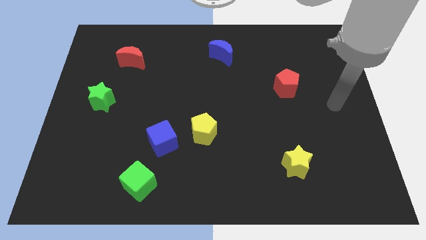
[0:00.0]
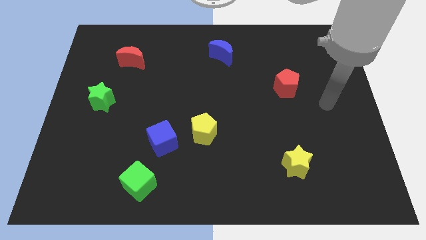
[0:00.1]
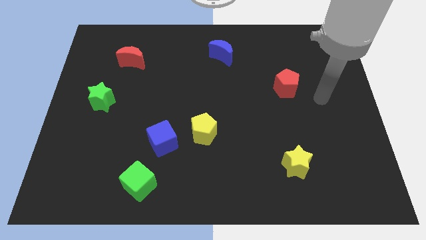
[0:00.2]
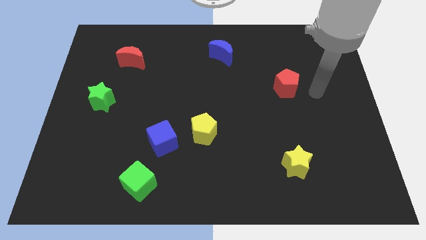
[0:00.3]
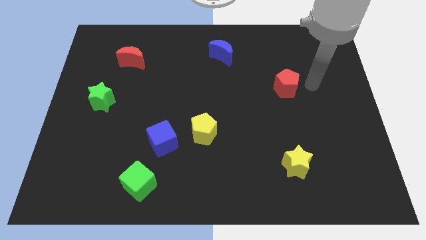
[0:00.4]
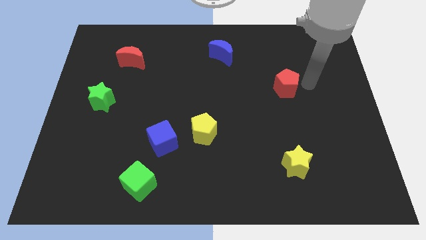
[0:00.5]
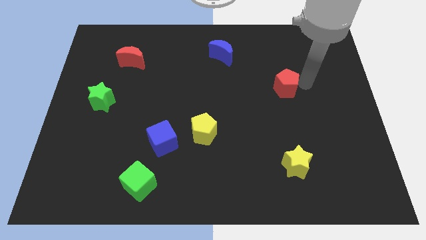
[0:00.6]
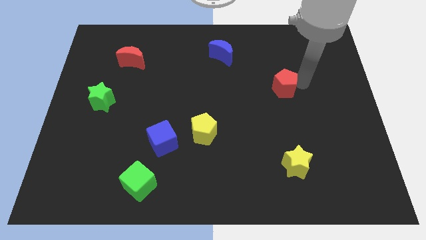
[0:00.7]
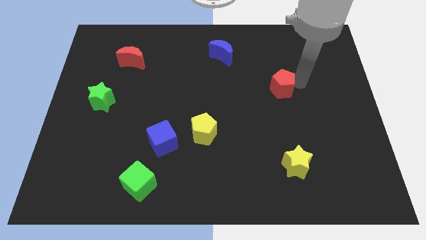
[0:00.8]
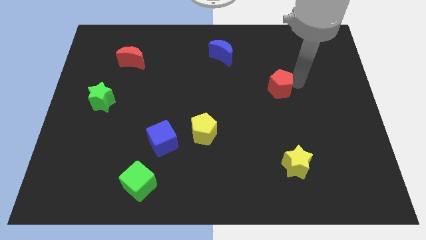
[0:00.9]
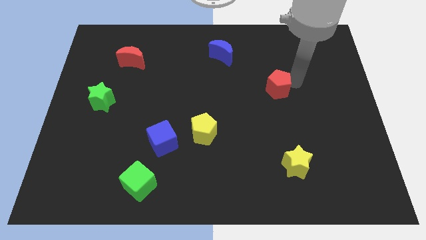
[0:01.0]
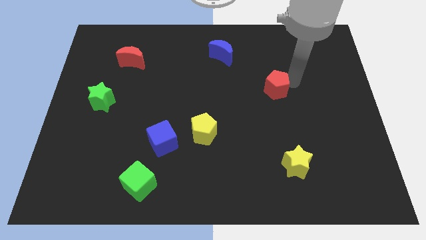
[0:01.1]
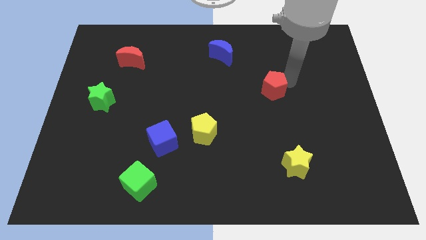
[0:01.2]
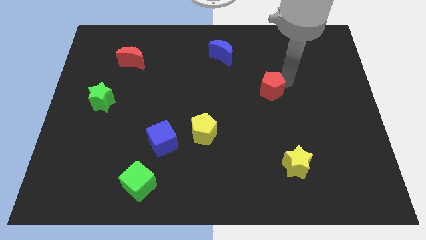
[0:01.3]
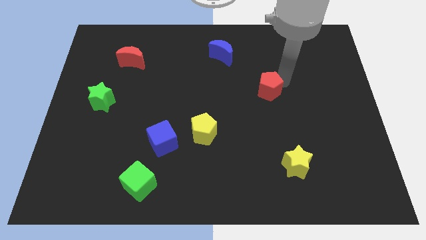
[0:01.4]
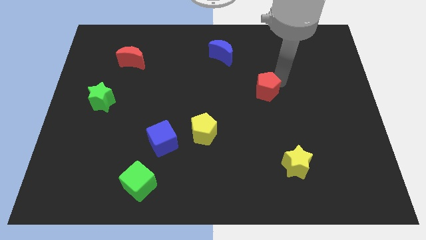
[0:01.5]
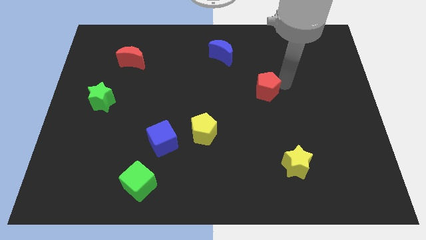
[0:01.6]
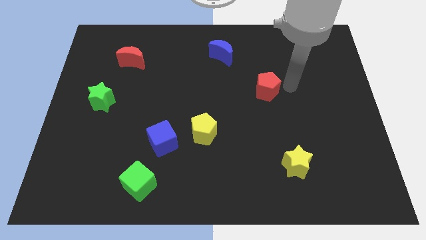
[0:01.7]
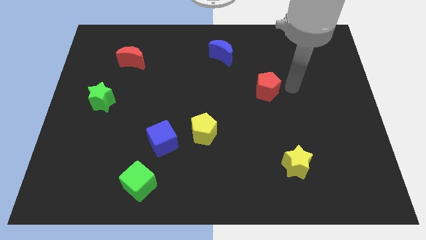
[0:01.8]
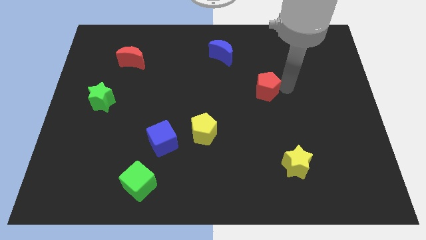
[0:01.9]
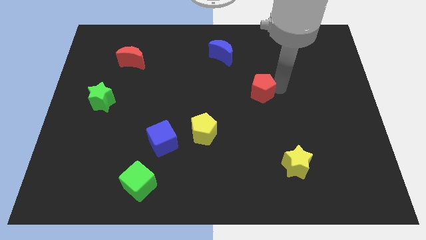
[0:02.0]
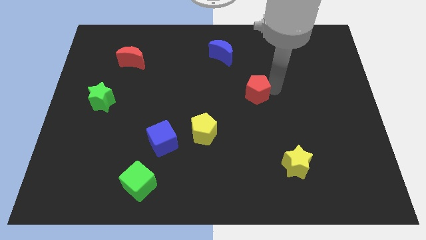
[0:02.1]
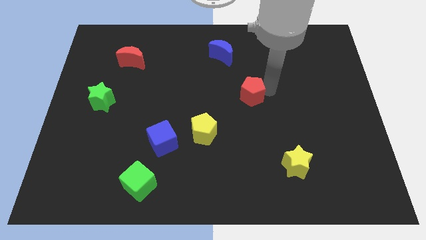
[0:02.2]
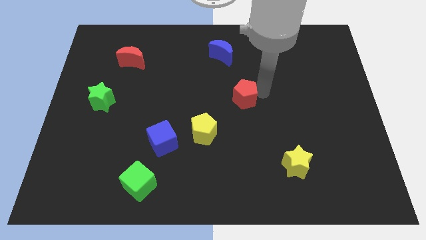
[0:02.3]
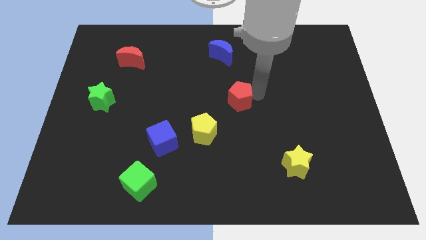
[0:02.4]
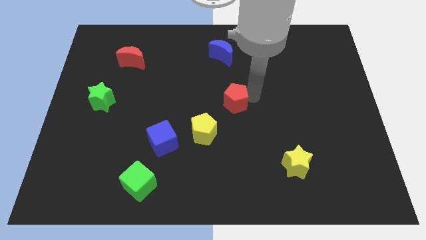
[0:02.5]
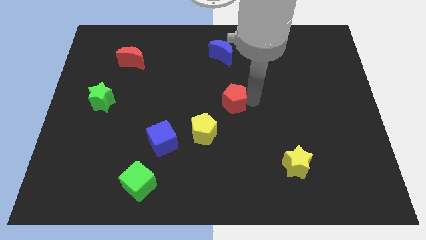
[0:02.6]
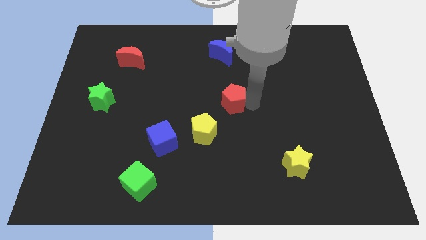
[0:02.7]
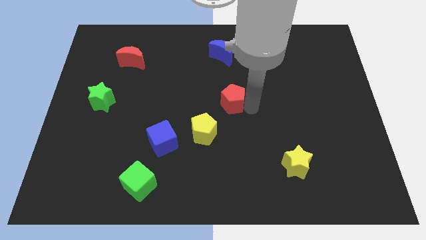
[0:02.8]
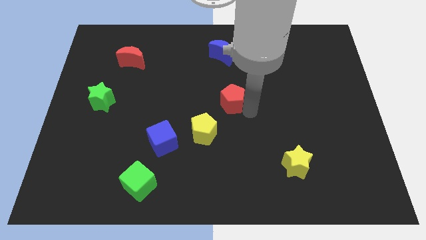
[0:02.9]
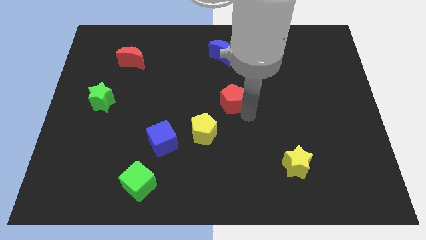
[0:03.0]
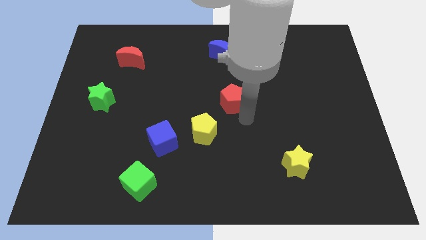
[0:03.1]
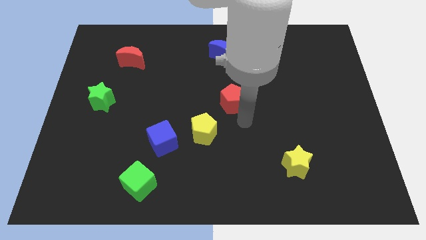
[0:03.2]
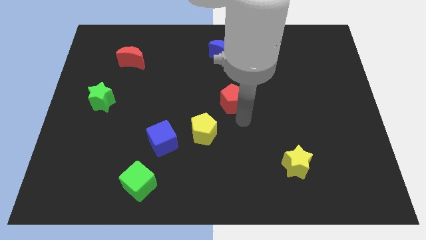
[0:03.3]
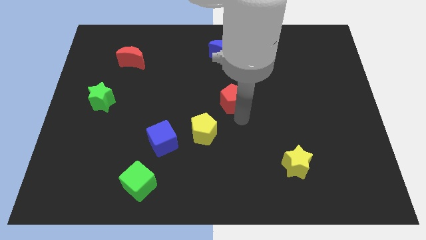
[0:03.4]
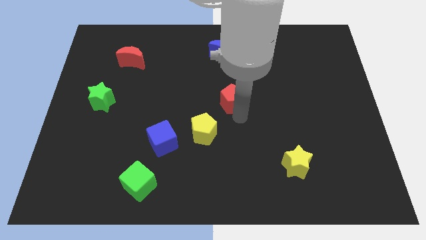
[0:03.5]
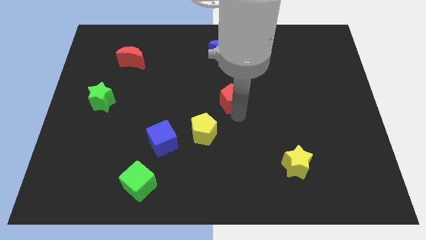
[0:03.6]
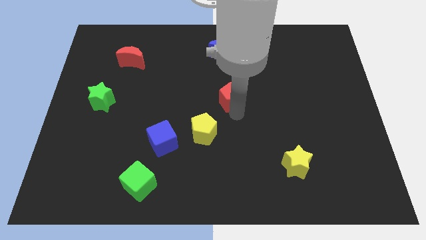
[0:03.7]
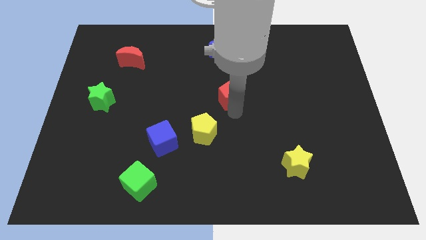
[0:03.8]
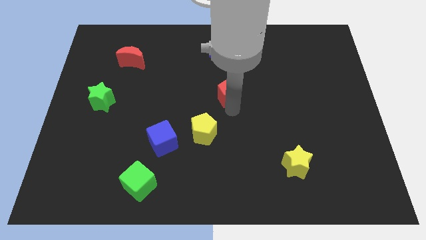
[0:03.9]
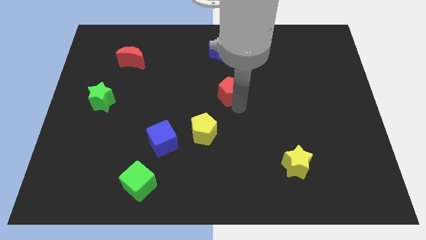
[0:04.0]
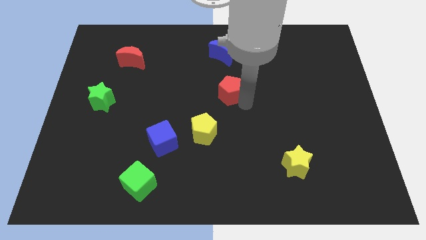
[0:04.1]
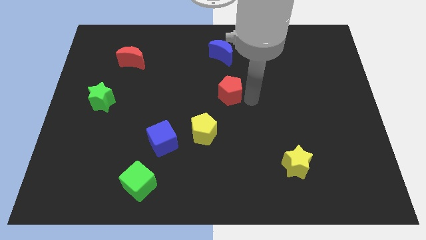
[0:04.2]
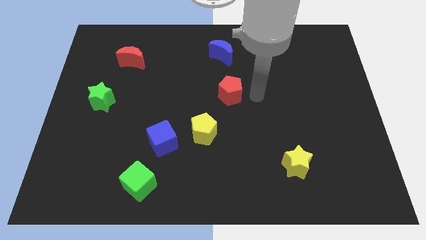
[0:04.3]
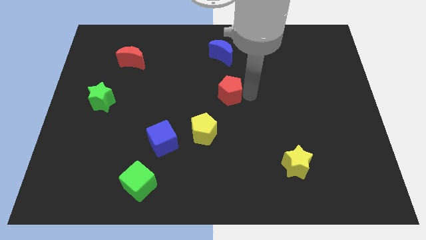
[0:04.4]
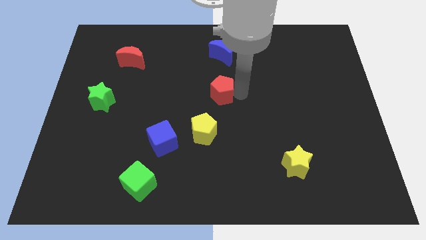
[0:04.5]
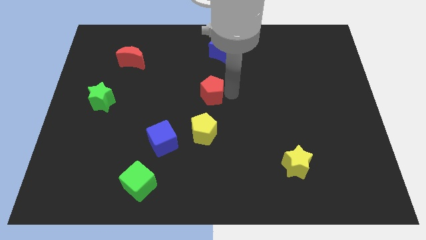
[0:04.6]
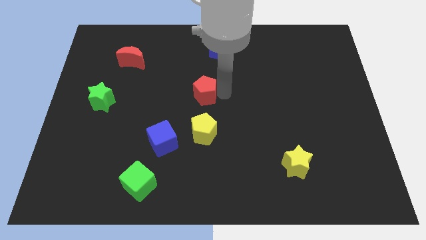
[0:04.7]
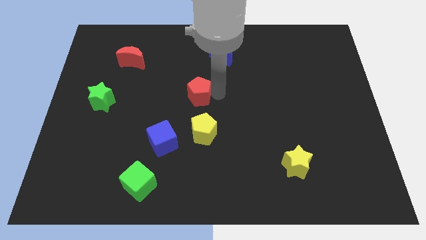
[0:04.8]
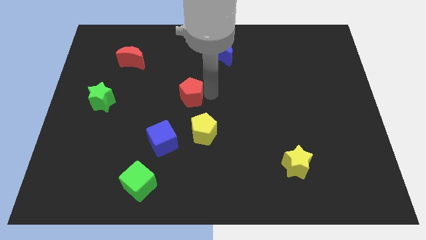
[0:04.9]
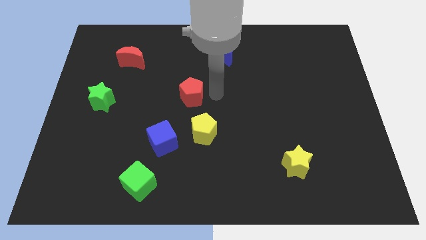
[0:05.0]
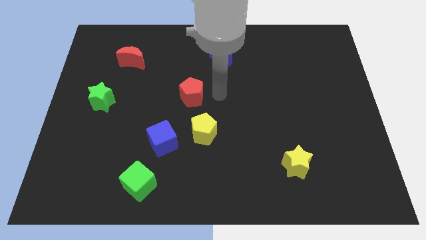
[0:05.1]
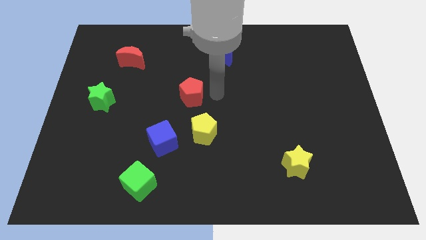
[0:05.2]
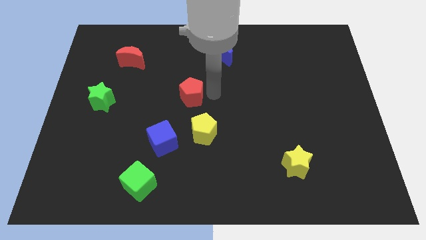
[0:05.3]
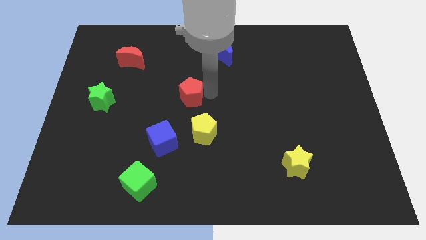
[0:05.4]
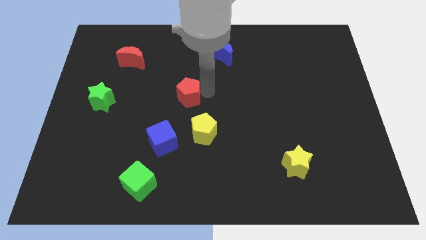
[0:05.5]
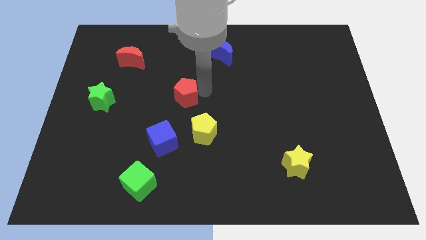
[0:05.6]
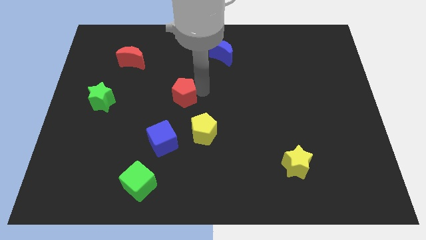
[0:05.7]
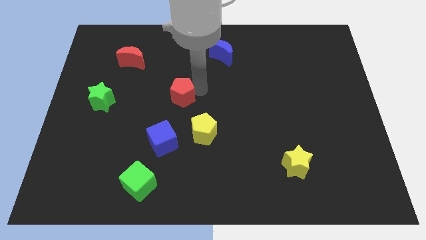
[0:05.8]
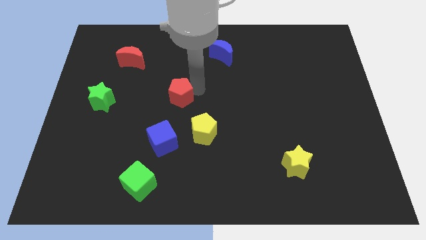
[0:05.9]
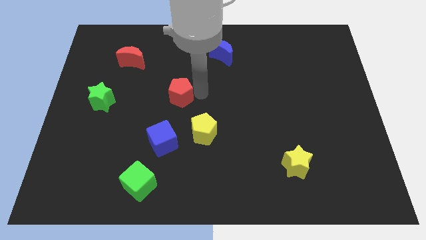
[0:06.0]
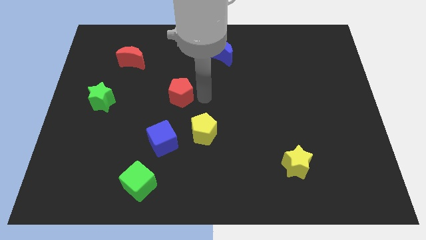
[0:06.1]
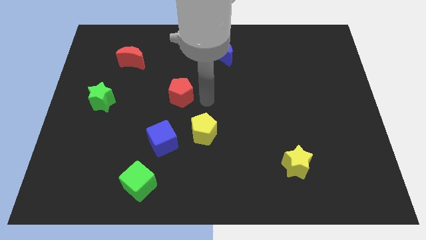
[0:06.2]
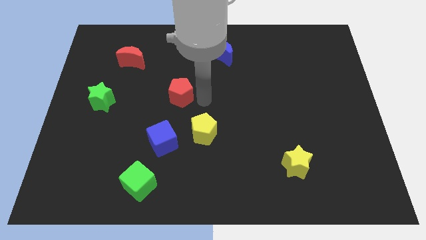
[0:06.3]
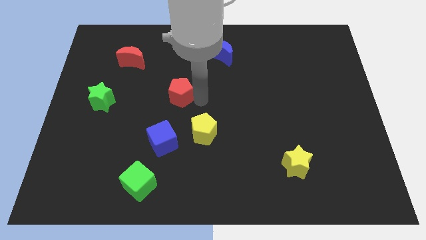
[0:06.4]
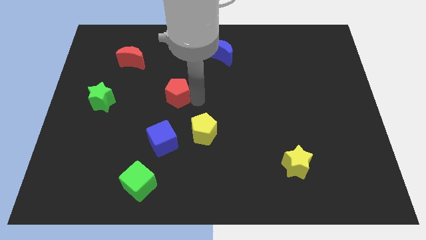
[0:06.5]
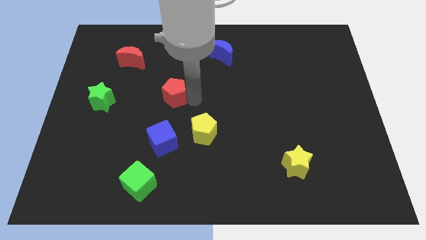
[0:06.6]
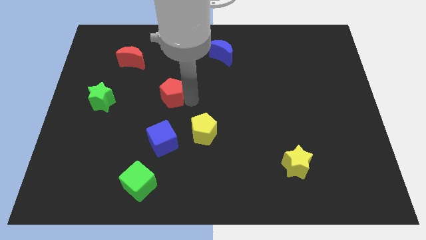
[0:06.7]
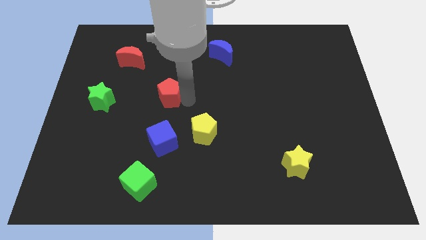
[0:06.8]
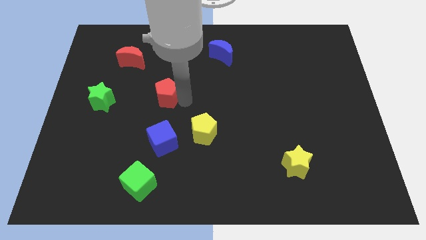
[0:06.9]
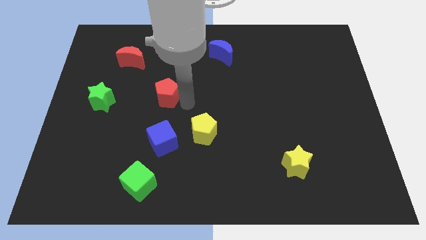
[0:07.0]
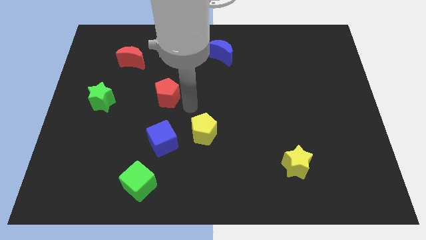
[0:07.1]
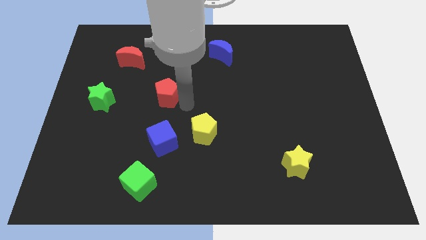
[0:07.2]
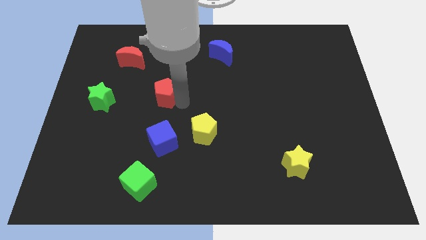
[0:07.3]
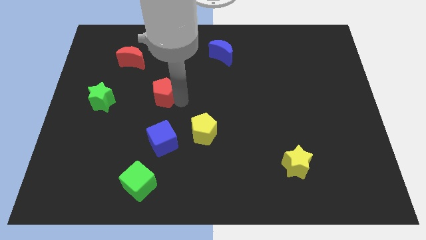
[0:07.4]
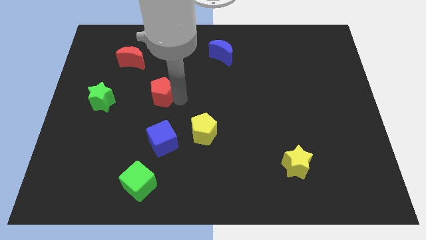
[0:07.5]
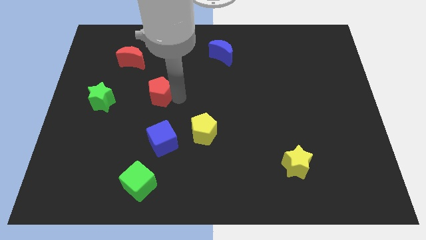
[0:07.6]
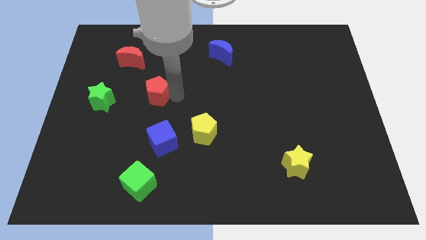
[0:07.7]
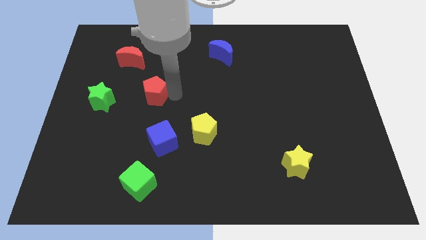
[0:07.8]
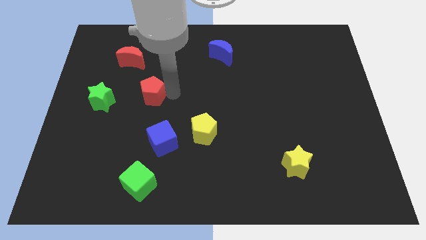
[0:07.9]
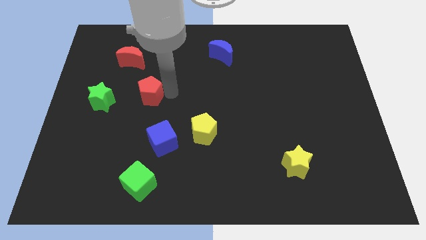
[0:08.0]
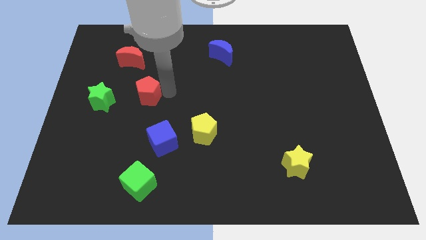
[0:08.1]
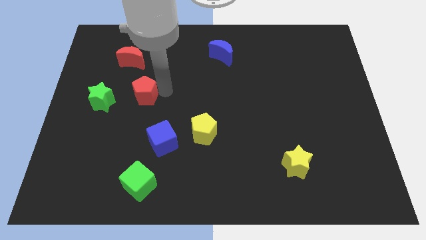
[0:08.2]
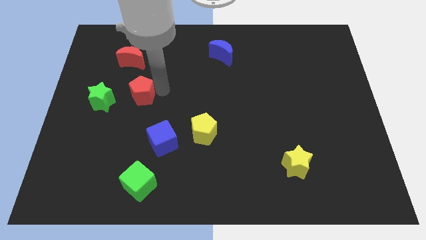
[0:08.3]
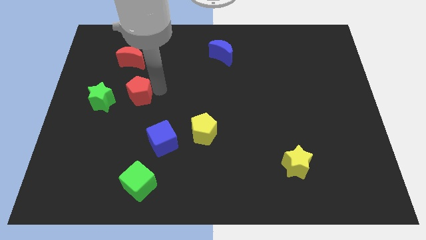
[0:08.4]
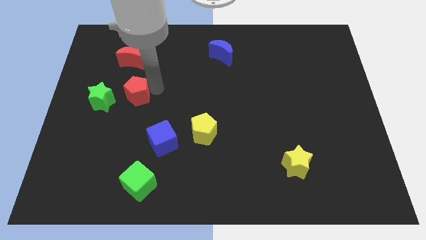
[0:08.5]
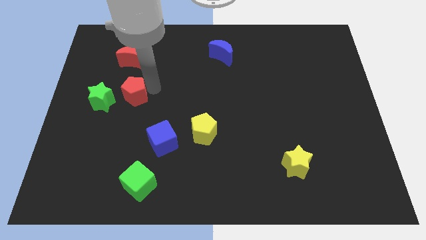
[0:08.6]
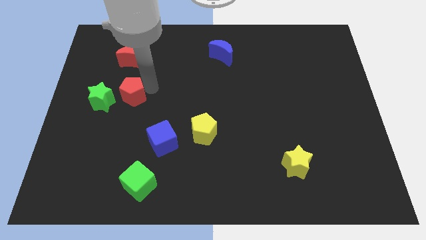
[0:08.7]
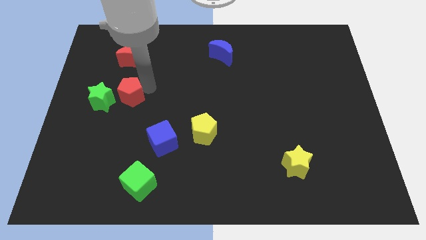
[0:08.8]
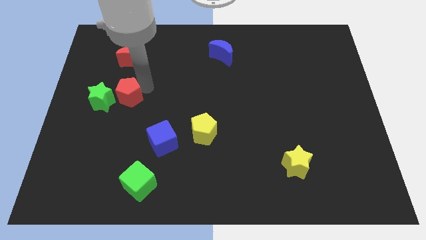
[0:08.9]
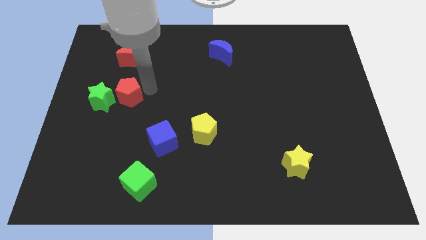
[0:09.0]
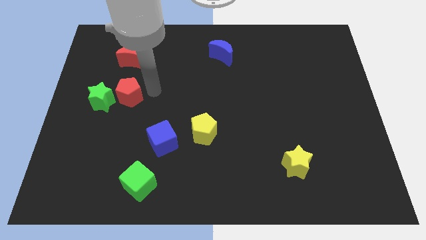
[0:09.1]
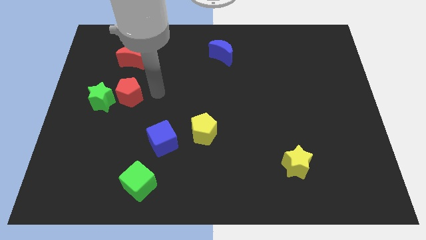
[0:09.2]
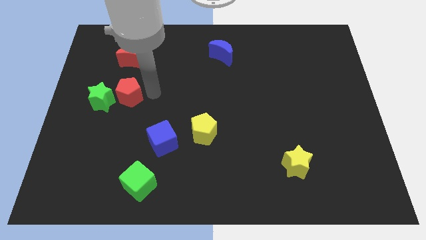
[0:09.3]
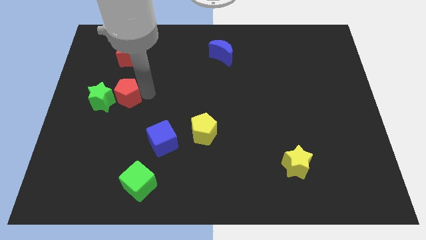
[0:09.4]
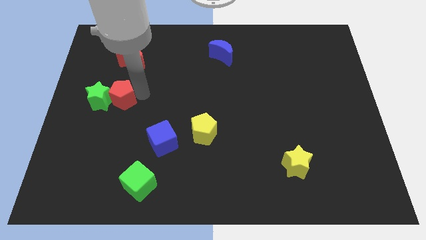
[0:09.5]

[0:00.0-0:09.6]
put the red pentagon next to the green star
